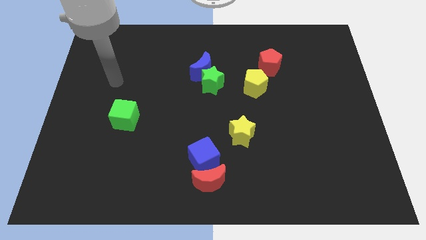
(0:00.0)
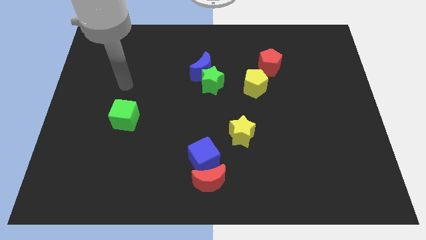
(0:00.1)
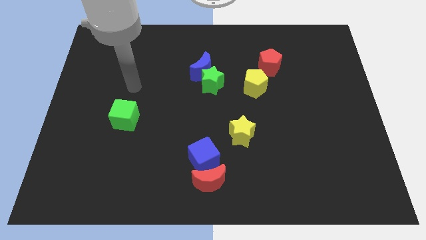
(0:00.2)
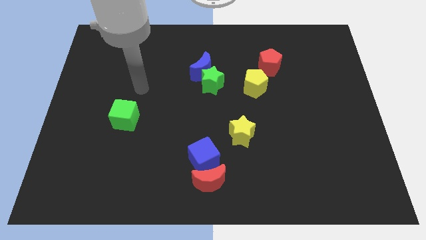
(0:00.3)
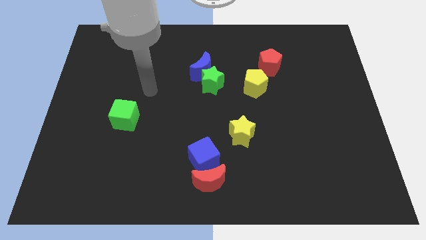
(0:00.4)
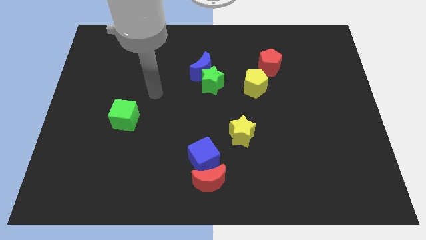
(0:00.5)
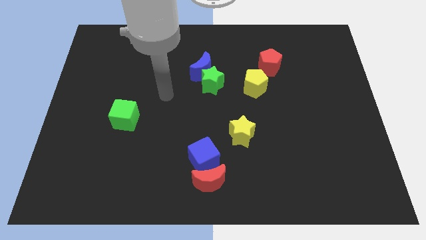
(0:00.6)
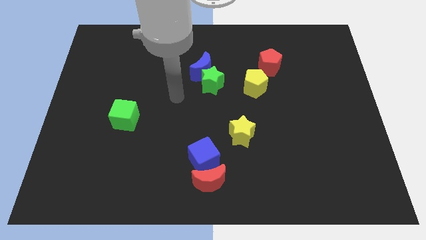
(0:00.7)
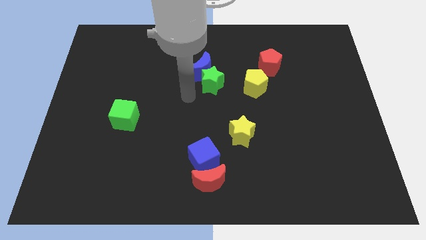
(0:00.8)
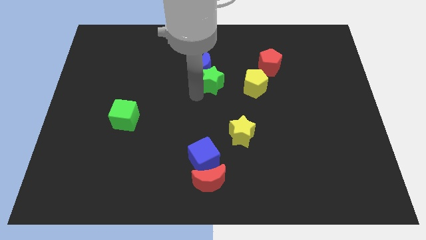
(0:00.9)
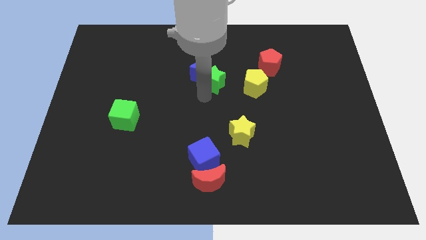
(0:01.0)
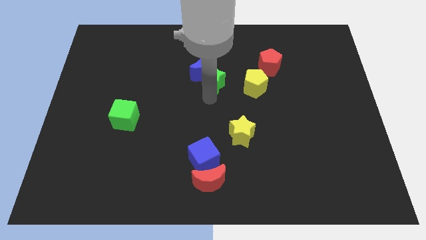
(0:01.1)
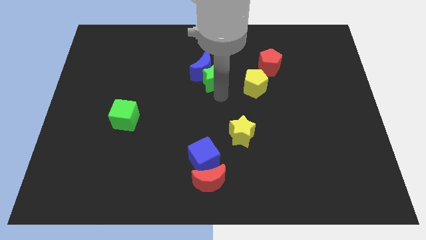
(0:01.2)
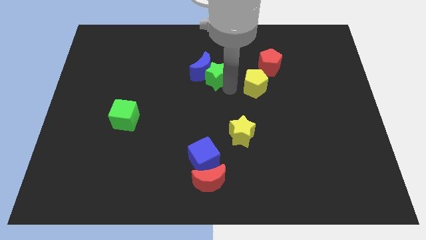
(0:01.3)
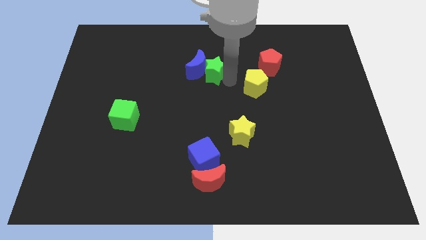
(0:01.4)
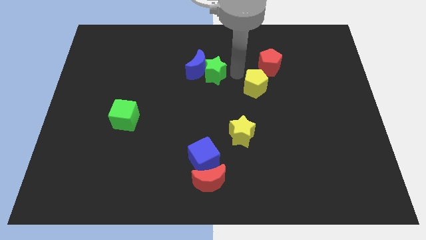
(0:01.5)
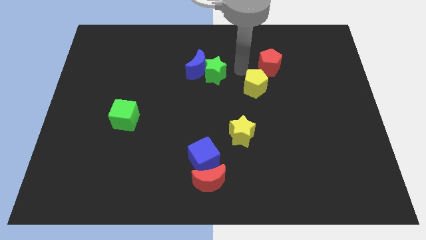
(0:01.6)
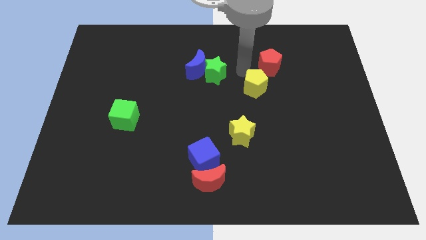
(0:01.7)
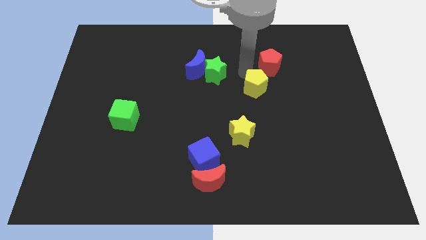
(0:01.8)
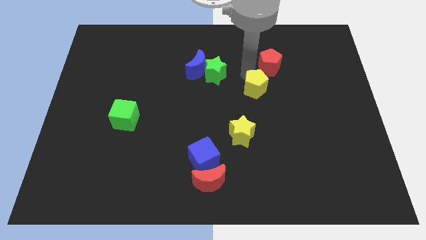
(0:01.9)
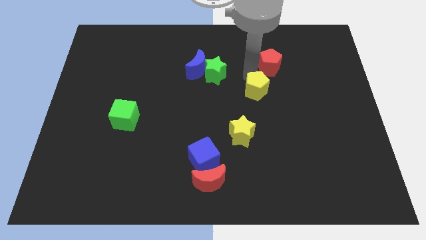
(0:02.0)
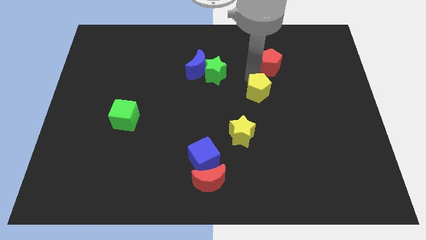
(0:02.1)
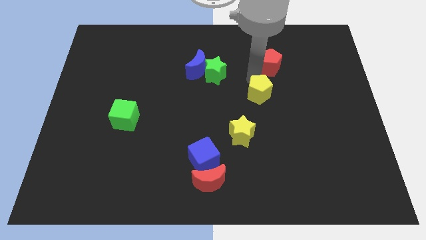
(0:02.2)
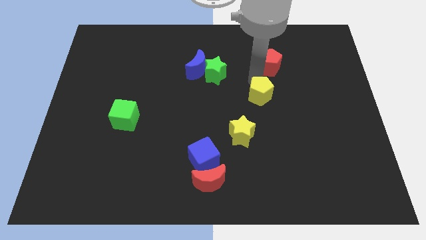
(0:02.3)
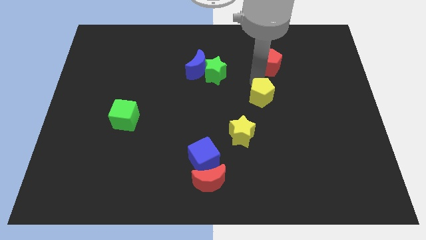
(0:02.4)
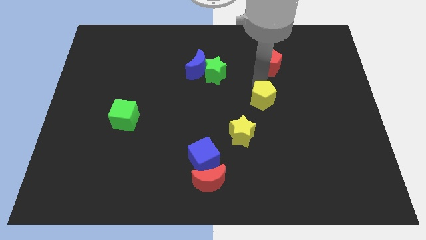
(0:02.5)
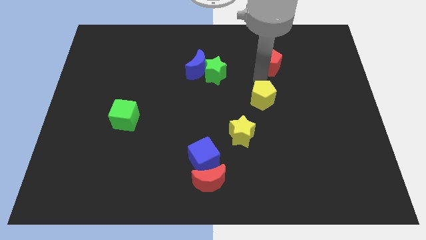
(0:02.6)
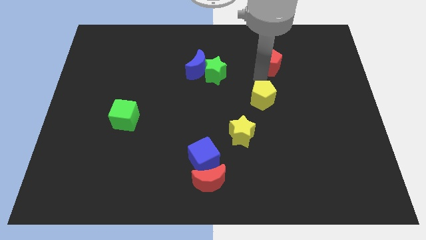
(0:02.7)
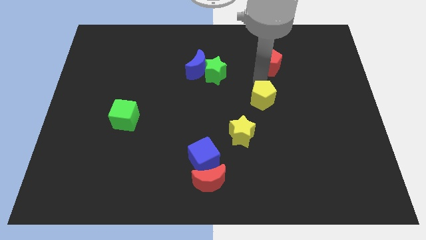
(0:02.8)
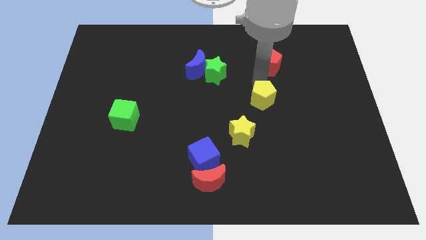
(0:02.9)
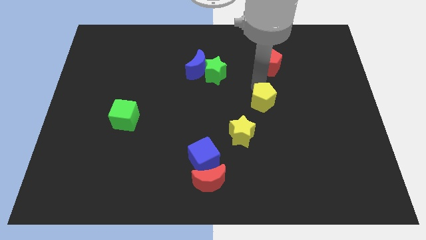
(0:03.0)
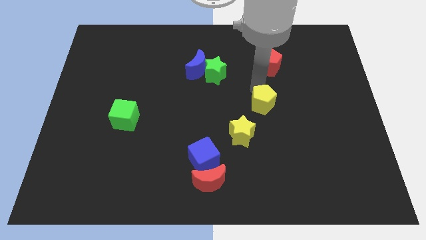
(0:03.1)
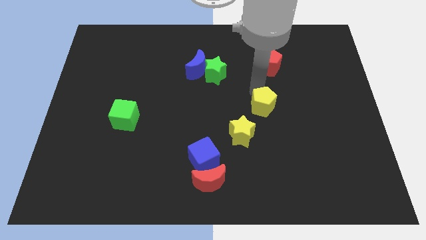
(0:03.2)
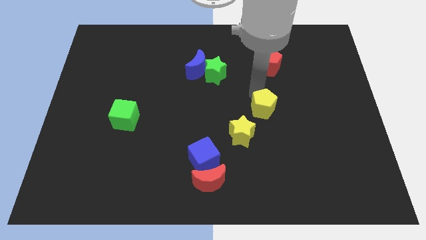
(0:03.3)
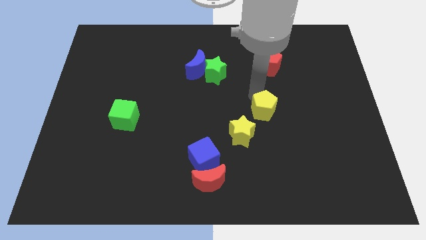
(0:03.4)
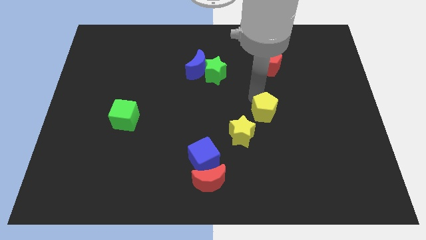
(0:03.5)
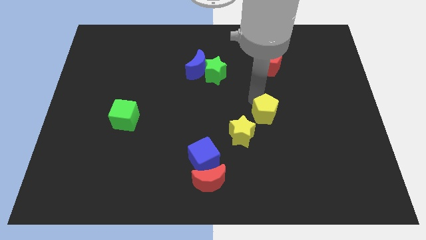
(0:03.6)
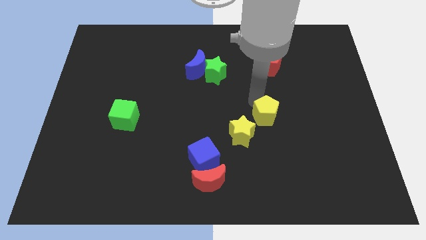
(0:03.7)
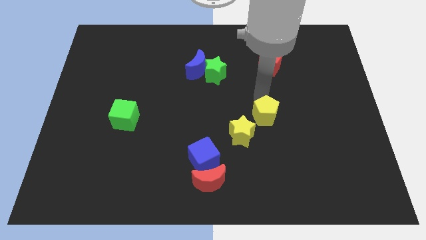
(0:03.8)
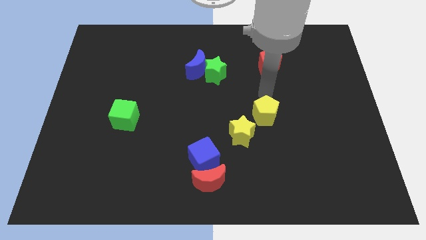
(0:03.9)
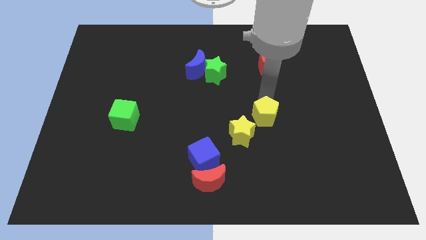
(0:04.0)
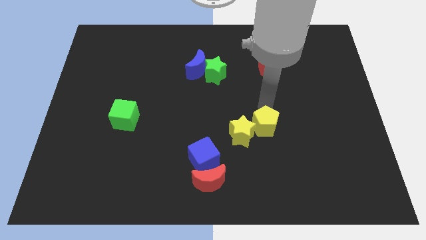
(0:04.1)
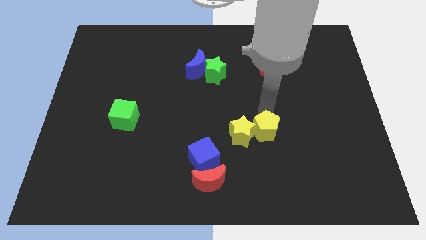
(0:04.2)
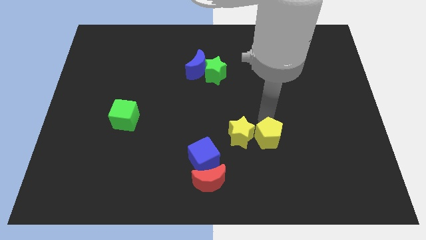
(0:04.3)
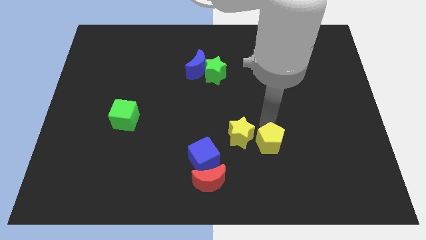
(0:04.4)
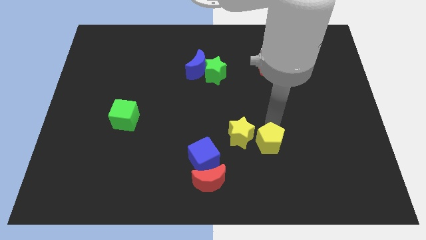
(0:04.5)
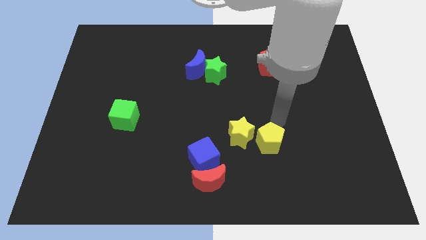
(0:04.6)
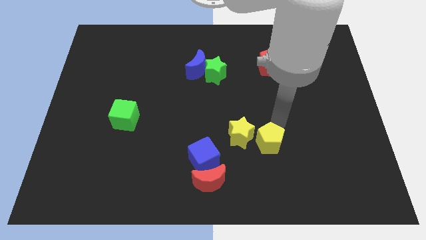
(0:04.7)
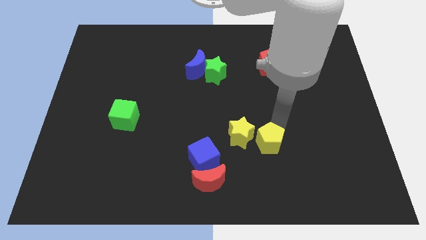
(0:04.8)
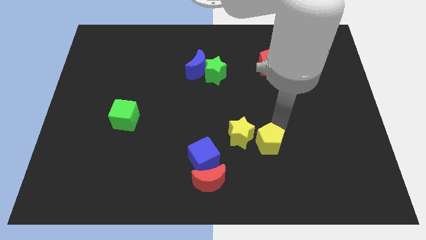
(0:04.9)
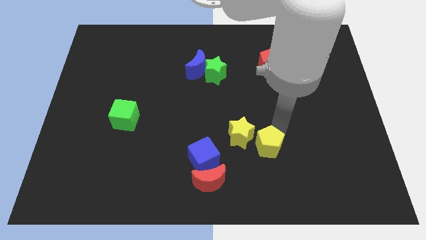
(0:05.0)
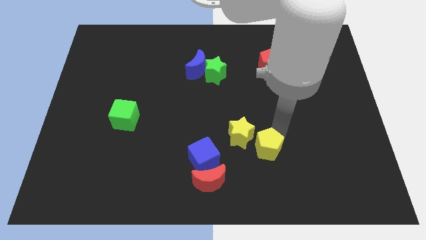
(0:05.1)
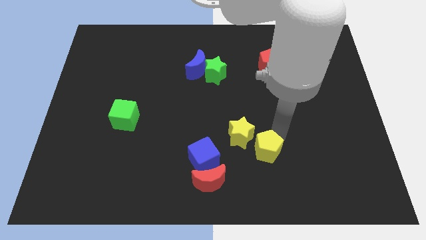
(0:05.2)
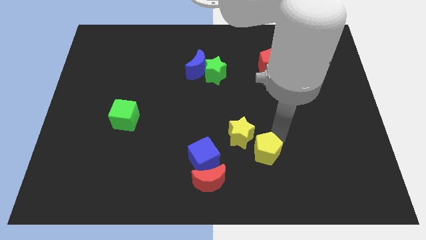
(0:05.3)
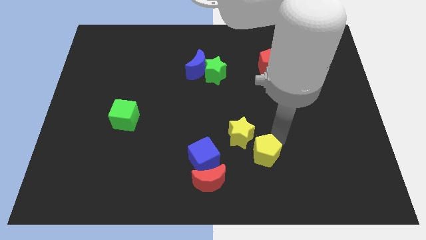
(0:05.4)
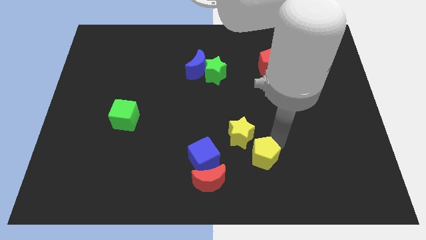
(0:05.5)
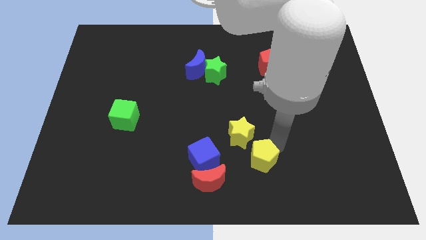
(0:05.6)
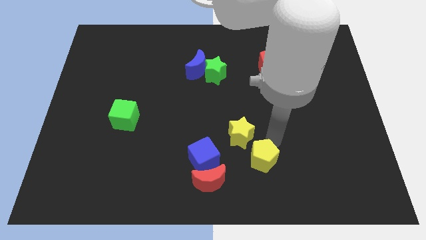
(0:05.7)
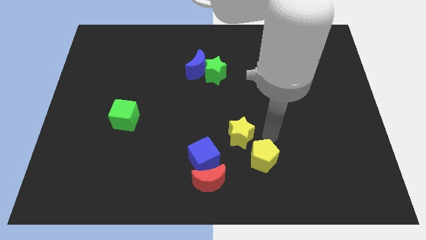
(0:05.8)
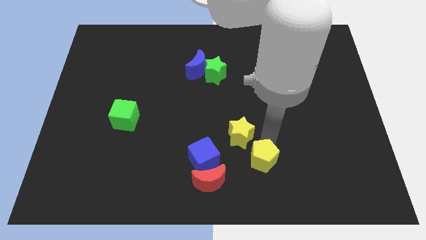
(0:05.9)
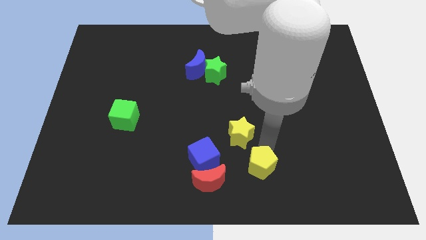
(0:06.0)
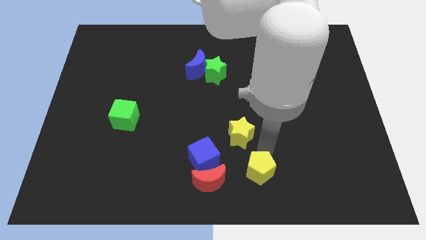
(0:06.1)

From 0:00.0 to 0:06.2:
put the yellow pentagon to the bottom
